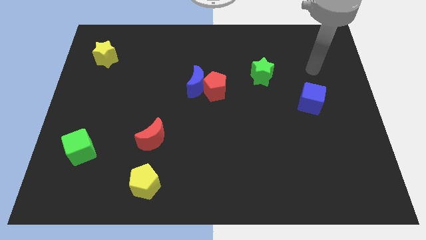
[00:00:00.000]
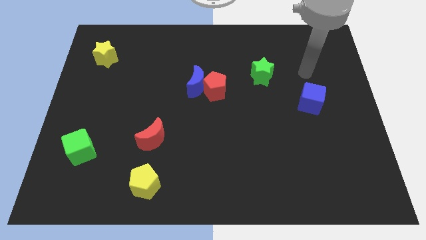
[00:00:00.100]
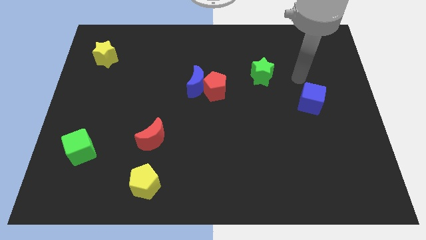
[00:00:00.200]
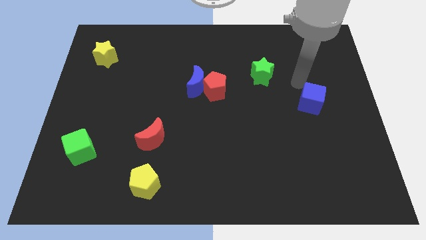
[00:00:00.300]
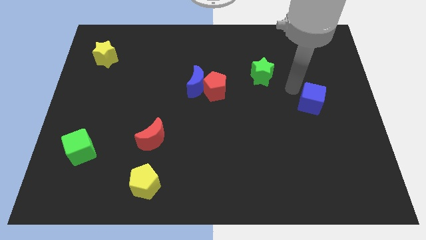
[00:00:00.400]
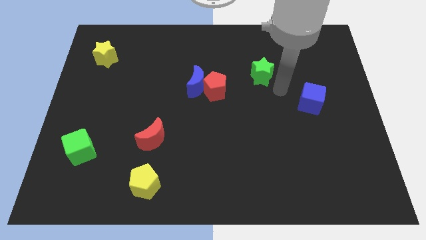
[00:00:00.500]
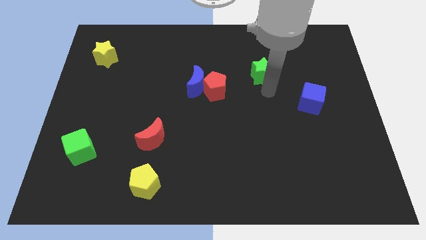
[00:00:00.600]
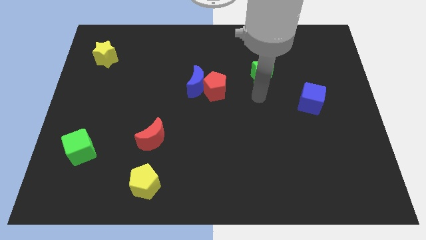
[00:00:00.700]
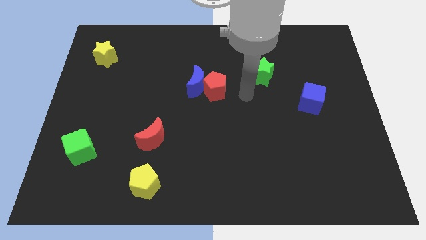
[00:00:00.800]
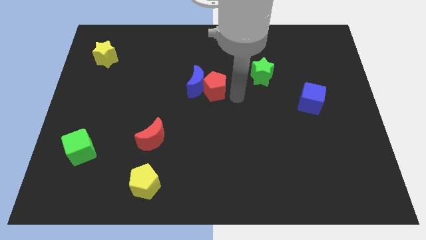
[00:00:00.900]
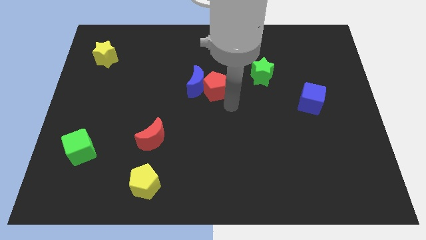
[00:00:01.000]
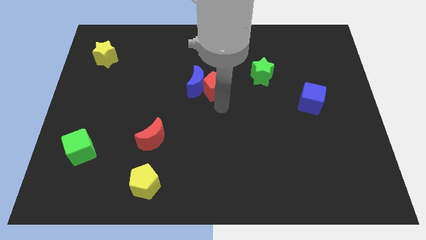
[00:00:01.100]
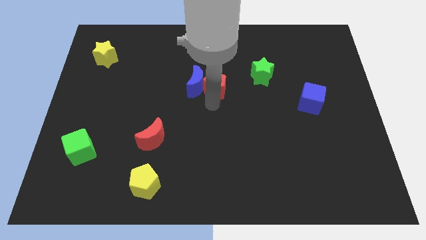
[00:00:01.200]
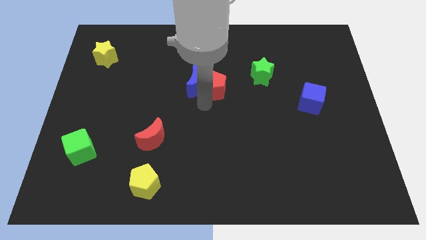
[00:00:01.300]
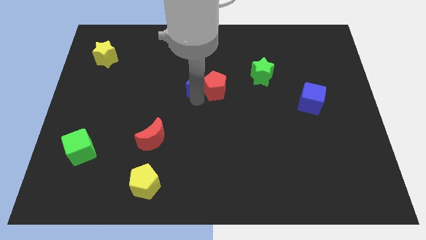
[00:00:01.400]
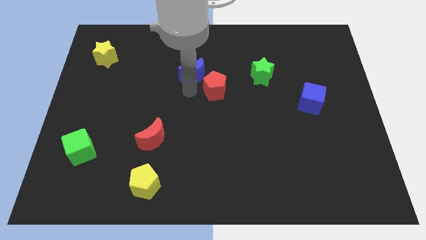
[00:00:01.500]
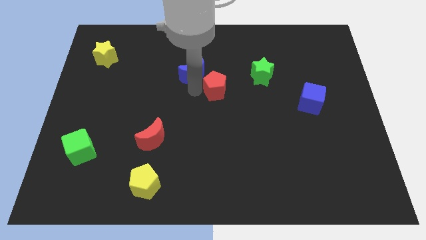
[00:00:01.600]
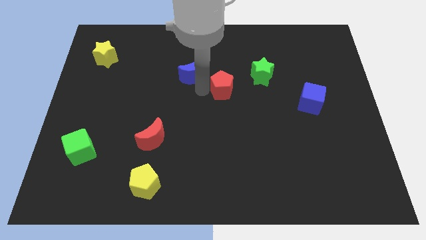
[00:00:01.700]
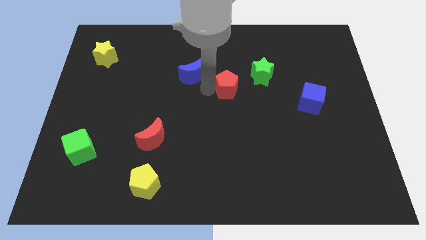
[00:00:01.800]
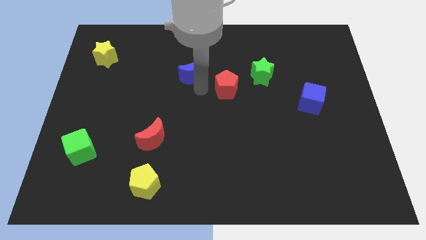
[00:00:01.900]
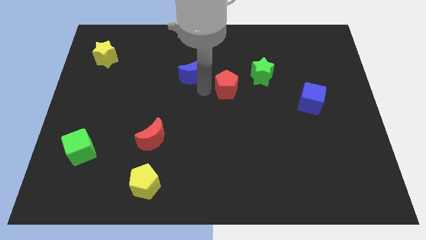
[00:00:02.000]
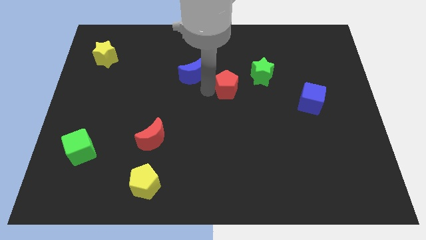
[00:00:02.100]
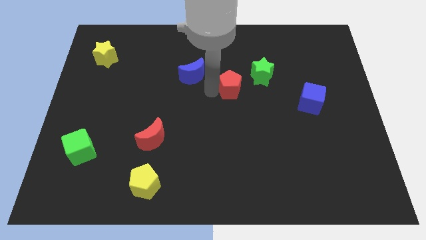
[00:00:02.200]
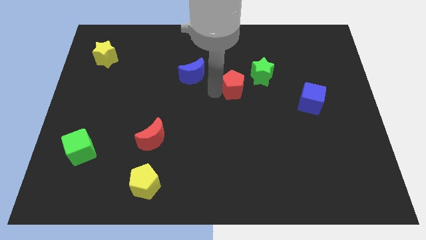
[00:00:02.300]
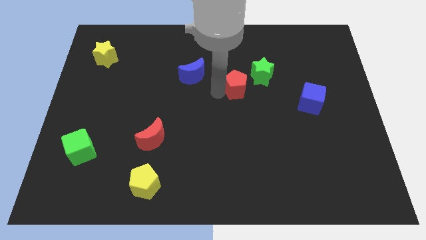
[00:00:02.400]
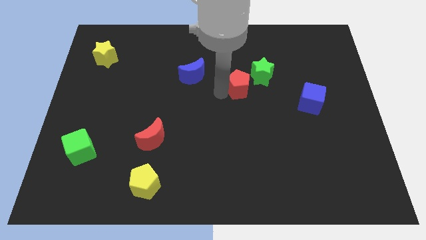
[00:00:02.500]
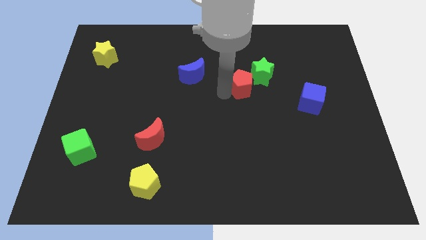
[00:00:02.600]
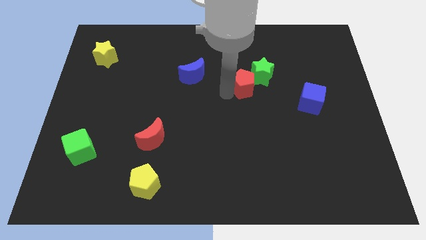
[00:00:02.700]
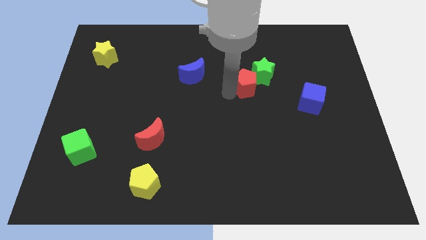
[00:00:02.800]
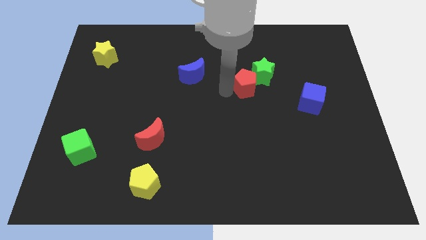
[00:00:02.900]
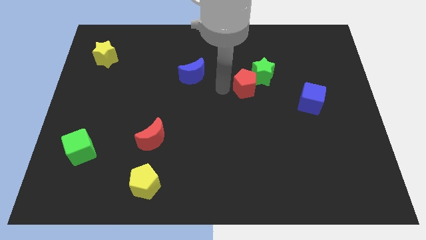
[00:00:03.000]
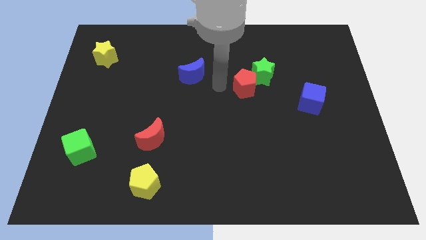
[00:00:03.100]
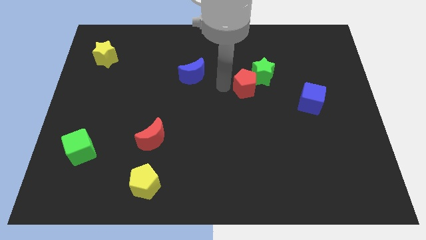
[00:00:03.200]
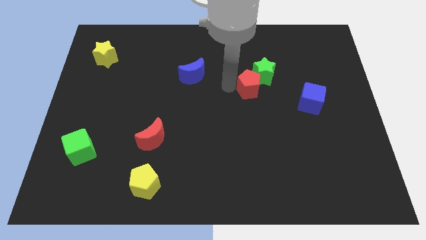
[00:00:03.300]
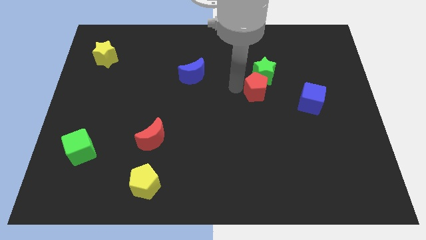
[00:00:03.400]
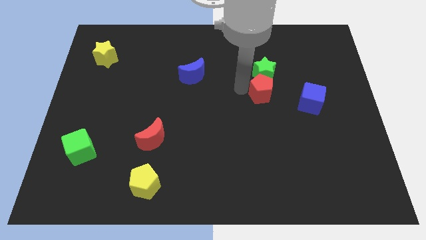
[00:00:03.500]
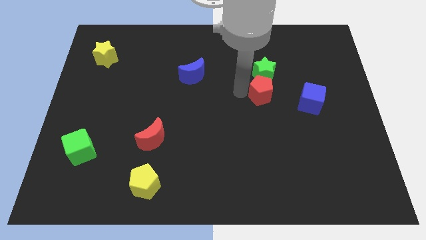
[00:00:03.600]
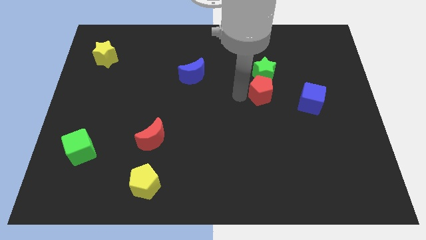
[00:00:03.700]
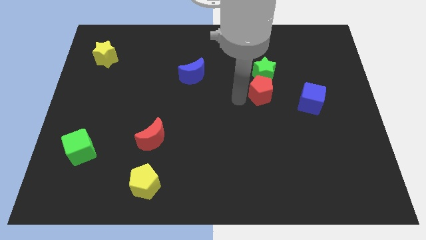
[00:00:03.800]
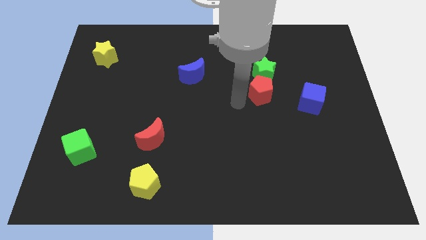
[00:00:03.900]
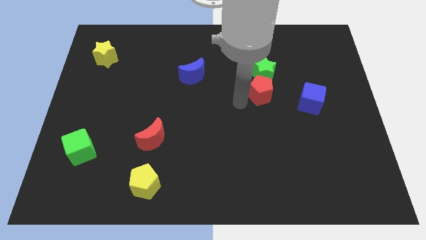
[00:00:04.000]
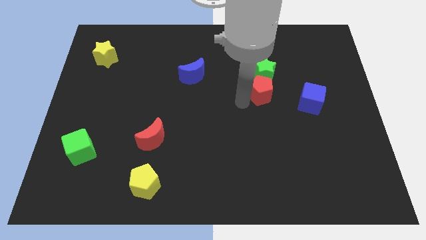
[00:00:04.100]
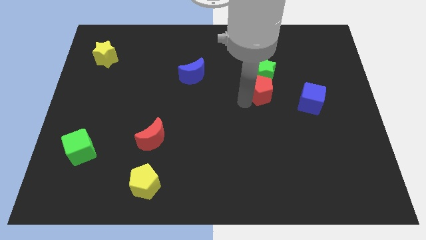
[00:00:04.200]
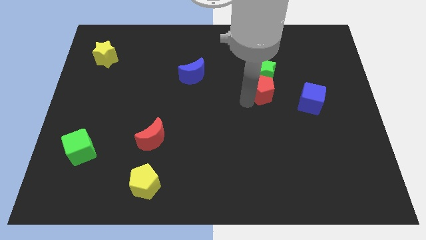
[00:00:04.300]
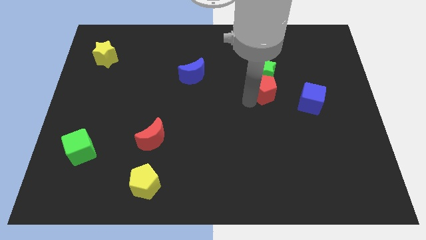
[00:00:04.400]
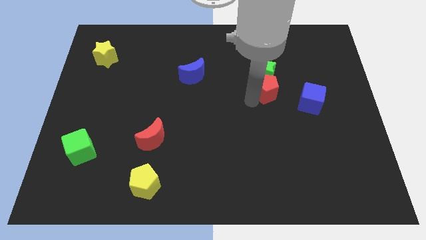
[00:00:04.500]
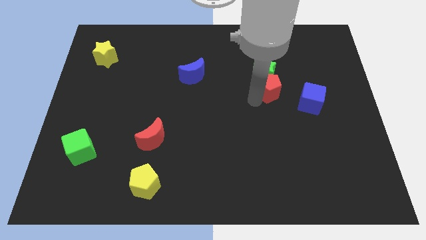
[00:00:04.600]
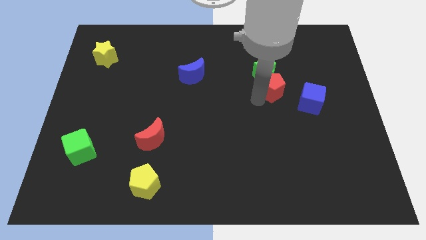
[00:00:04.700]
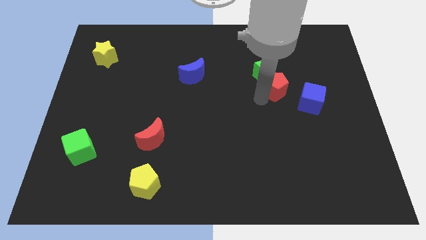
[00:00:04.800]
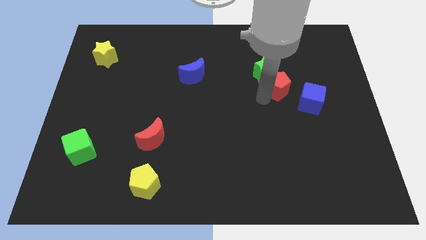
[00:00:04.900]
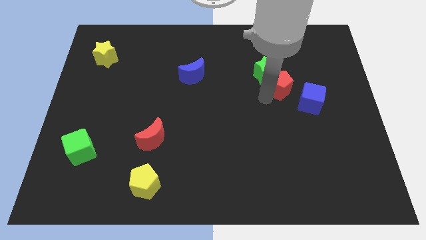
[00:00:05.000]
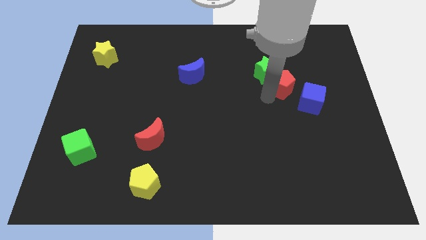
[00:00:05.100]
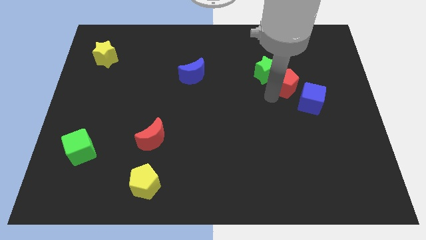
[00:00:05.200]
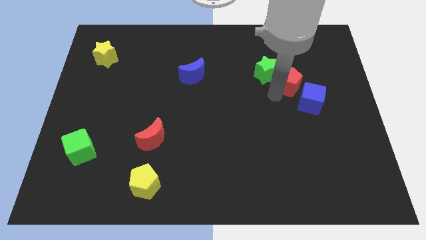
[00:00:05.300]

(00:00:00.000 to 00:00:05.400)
move the red pentagon to the top of the blue cube

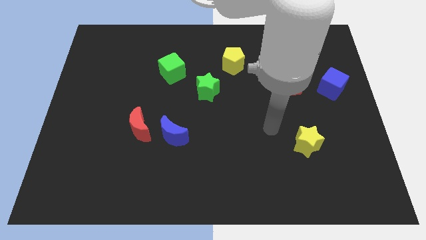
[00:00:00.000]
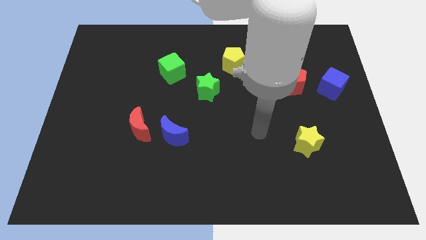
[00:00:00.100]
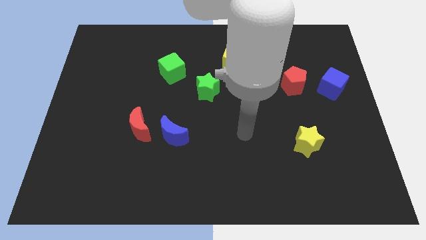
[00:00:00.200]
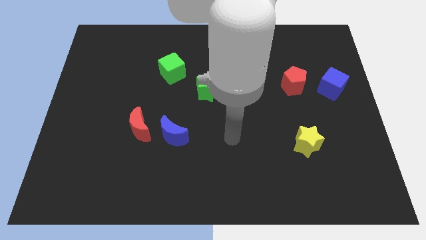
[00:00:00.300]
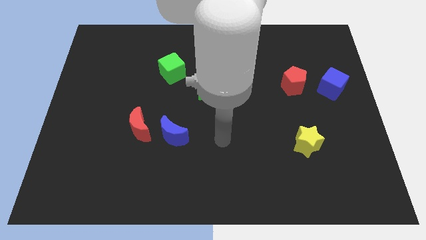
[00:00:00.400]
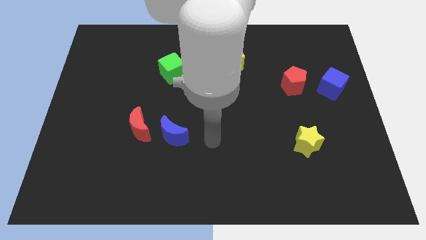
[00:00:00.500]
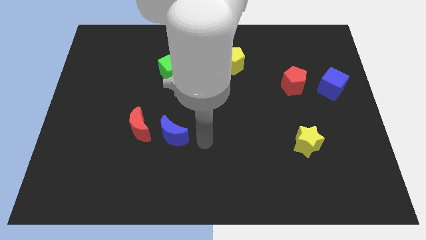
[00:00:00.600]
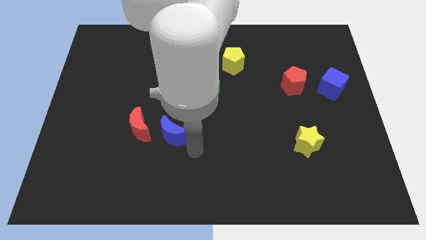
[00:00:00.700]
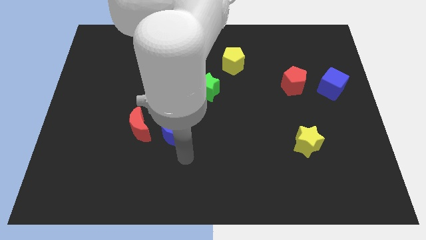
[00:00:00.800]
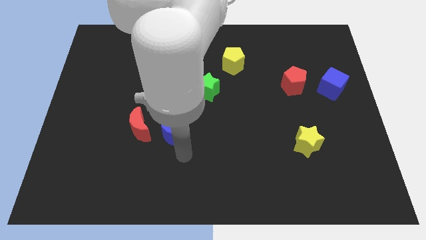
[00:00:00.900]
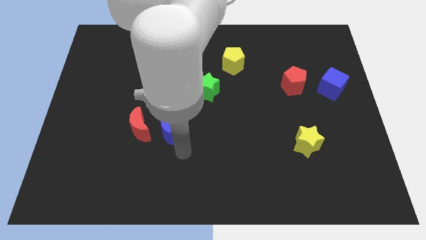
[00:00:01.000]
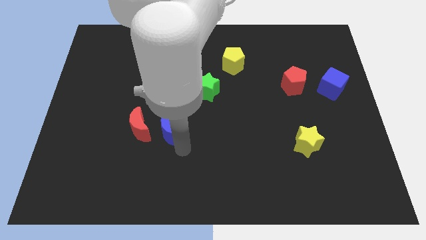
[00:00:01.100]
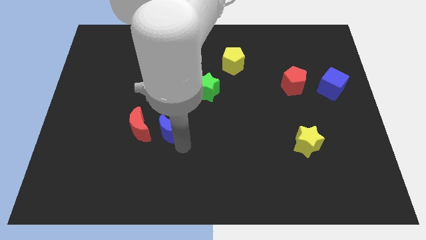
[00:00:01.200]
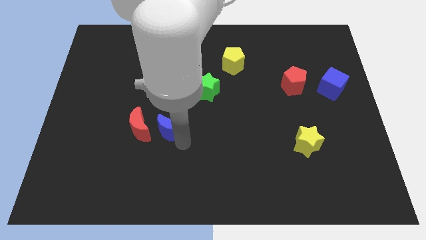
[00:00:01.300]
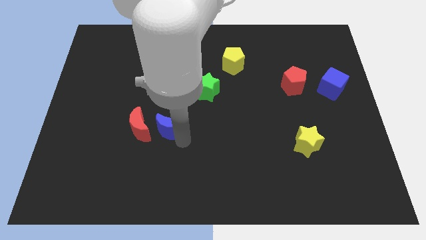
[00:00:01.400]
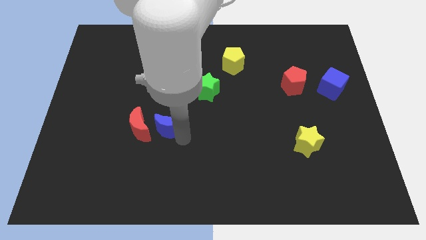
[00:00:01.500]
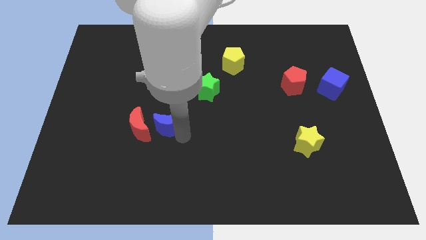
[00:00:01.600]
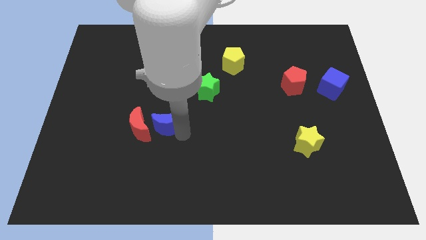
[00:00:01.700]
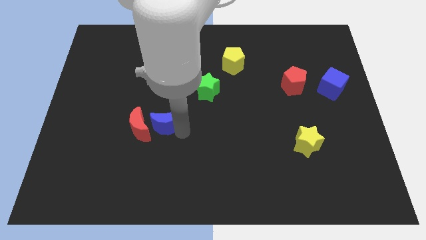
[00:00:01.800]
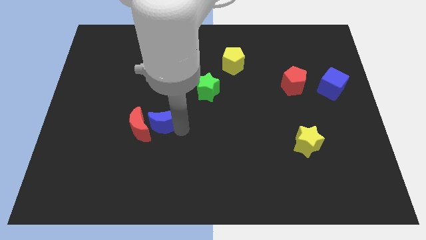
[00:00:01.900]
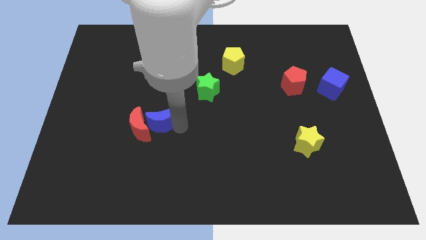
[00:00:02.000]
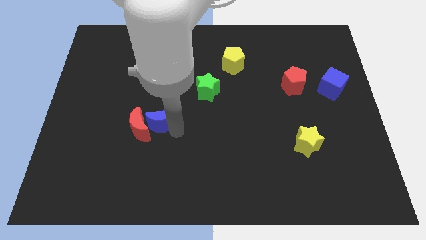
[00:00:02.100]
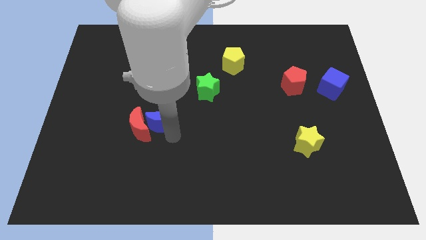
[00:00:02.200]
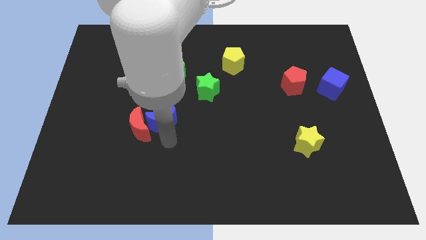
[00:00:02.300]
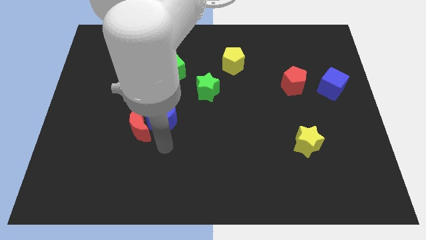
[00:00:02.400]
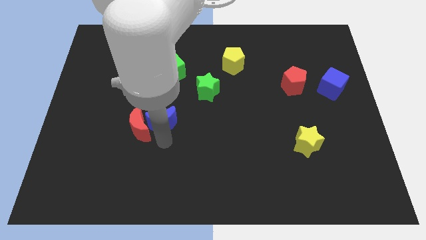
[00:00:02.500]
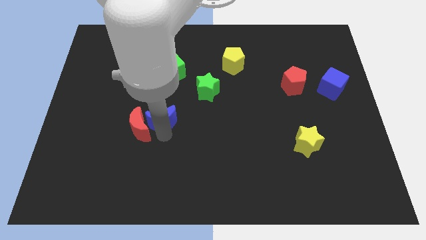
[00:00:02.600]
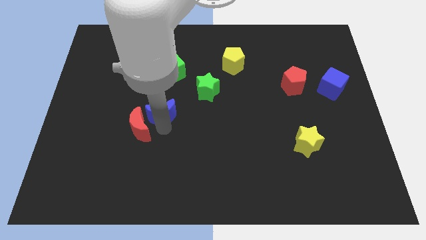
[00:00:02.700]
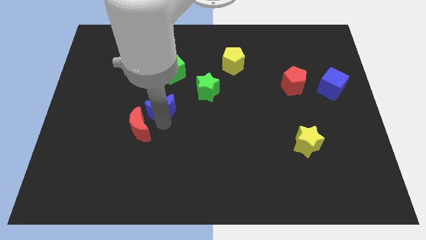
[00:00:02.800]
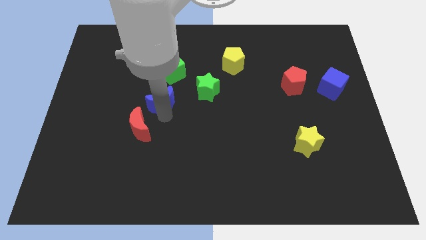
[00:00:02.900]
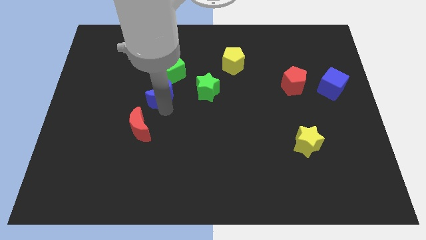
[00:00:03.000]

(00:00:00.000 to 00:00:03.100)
move the blue moon to the bottom left side of the green cube
